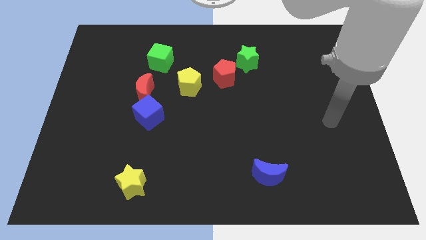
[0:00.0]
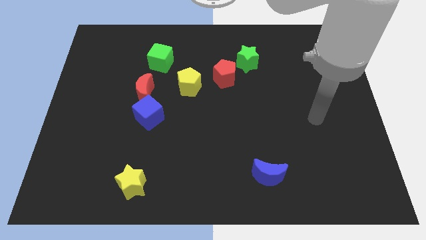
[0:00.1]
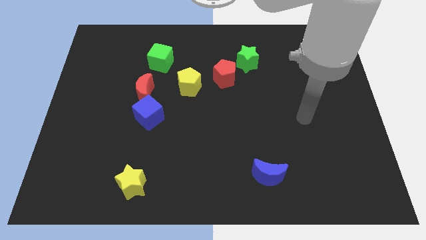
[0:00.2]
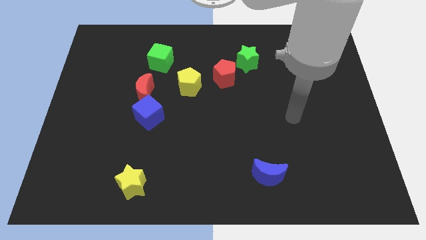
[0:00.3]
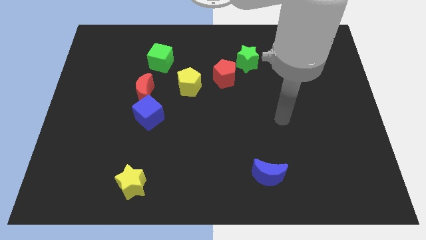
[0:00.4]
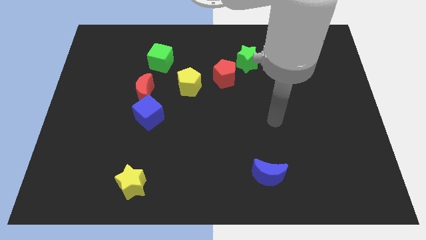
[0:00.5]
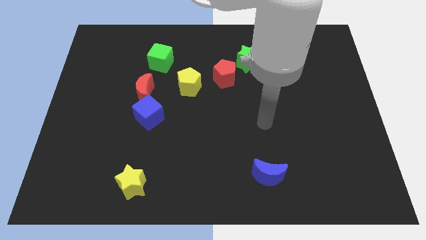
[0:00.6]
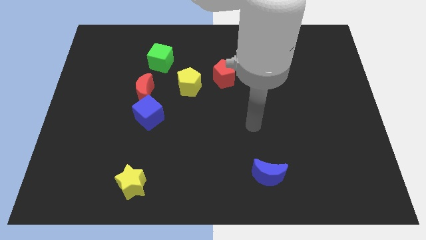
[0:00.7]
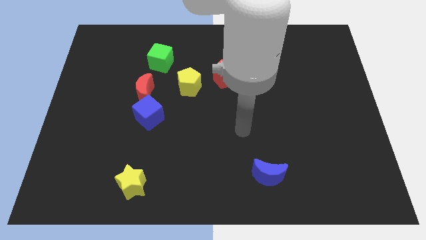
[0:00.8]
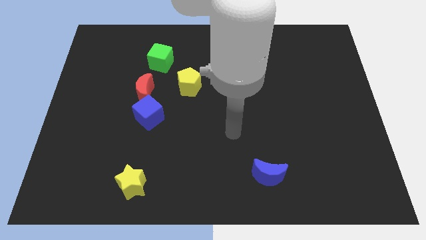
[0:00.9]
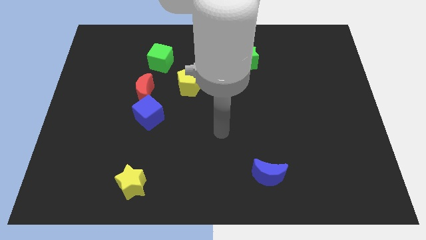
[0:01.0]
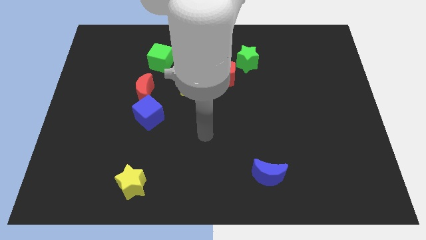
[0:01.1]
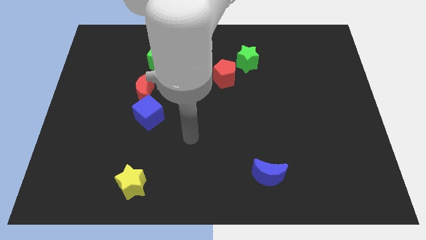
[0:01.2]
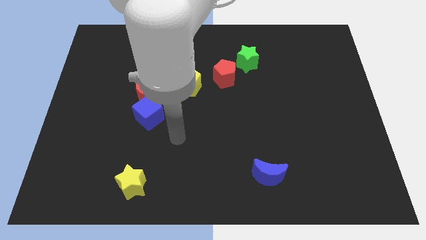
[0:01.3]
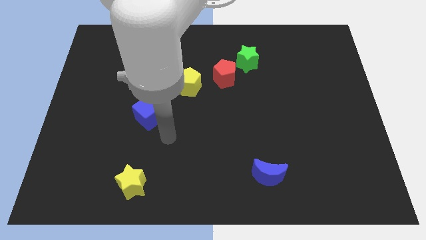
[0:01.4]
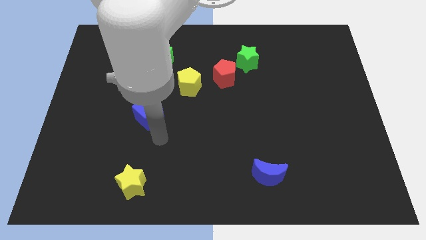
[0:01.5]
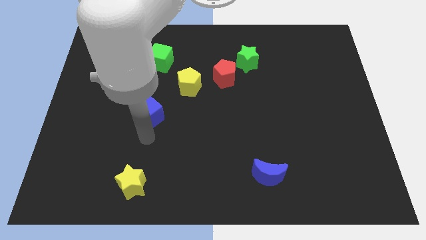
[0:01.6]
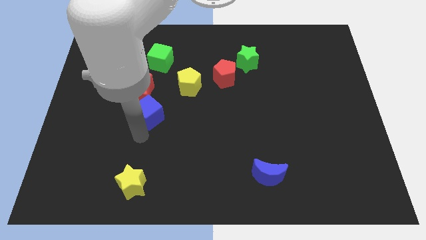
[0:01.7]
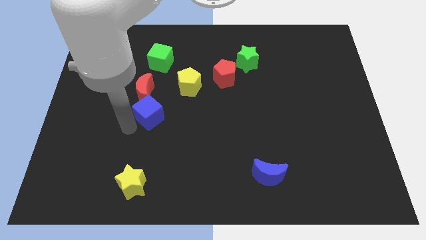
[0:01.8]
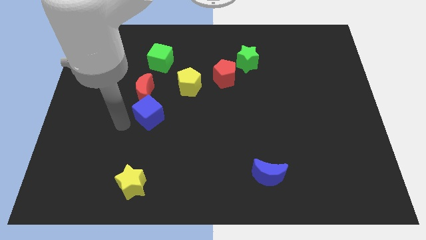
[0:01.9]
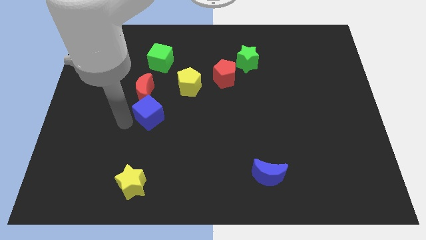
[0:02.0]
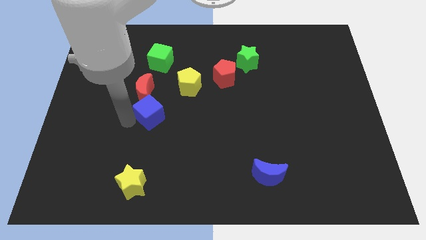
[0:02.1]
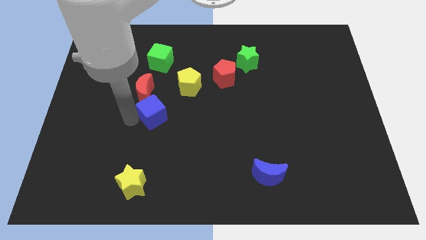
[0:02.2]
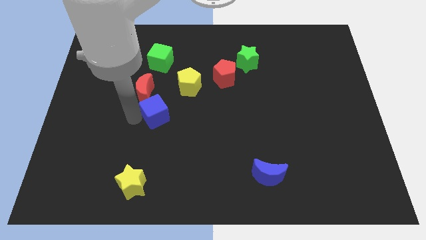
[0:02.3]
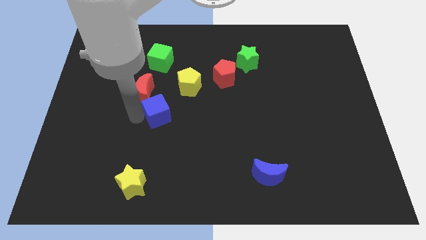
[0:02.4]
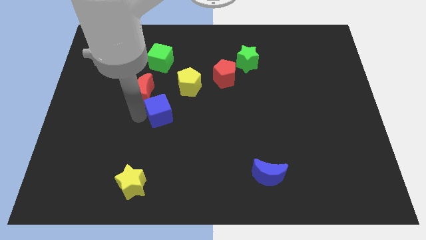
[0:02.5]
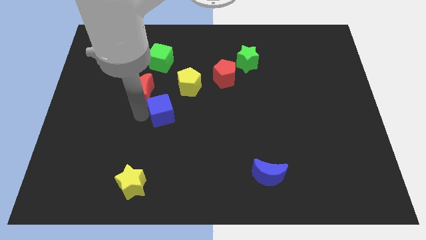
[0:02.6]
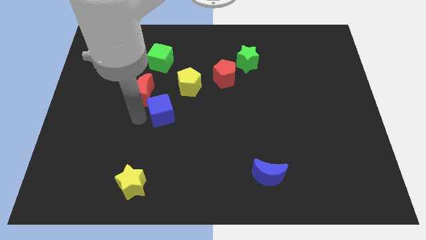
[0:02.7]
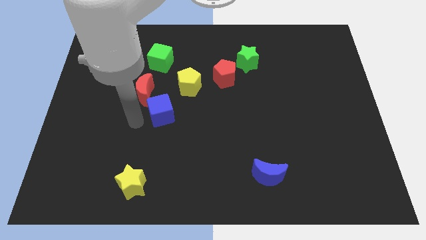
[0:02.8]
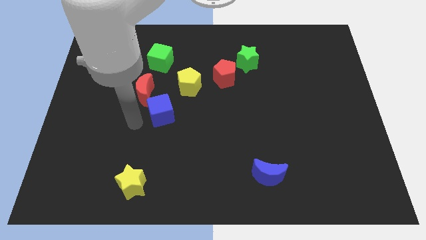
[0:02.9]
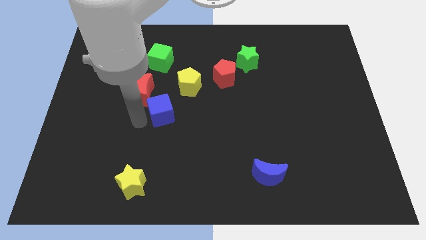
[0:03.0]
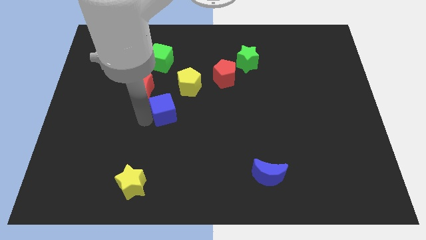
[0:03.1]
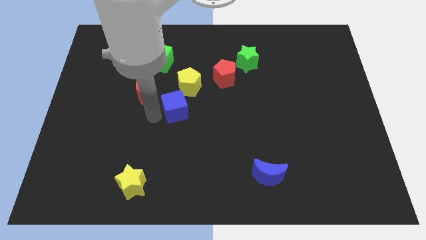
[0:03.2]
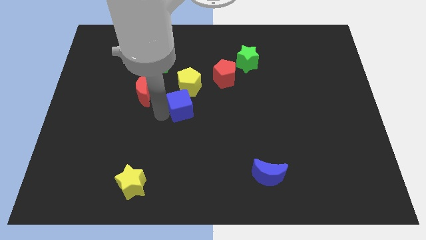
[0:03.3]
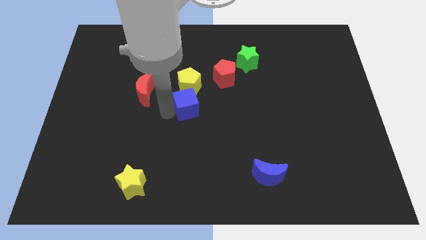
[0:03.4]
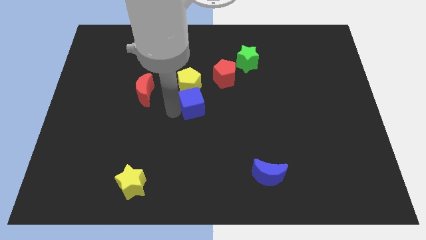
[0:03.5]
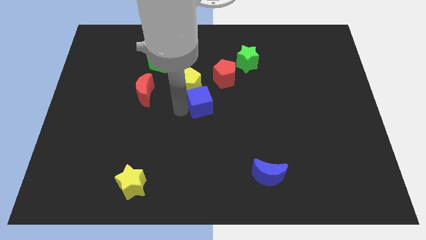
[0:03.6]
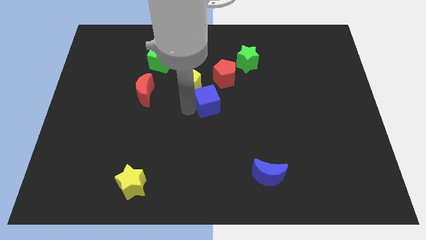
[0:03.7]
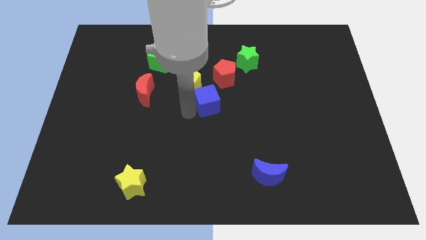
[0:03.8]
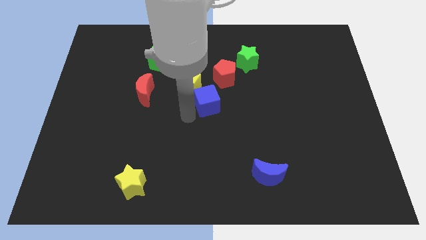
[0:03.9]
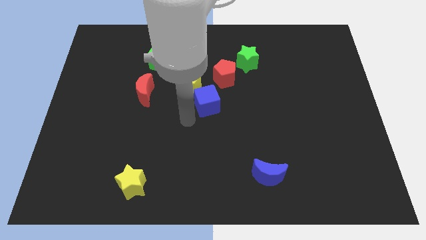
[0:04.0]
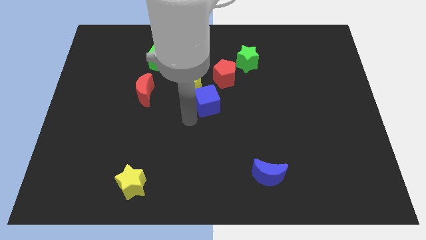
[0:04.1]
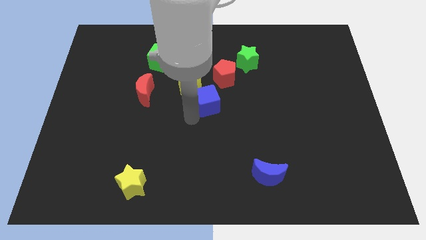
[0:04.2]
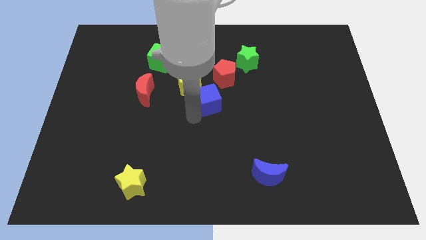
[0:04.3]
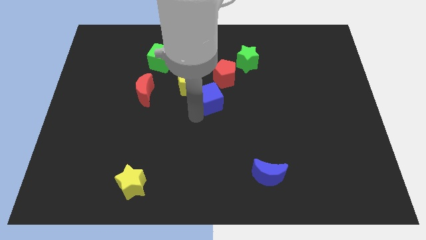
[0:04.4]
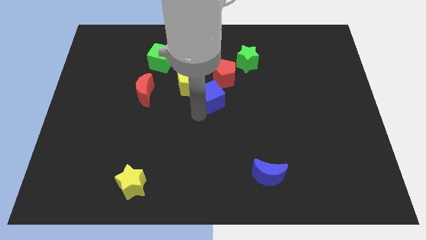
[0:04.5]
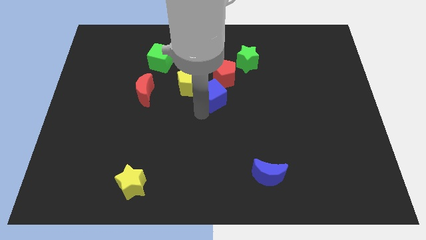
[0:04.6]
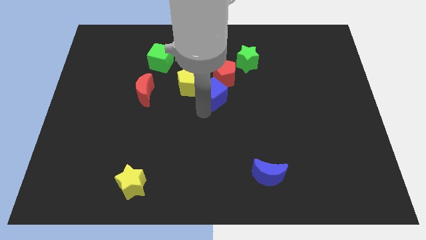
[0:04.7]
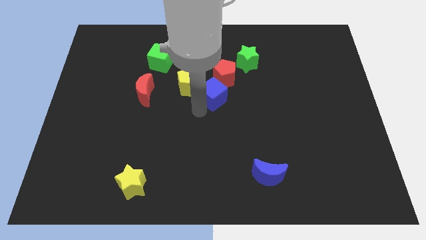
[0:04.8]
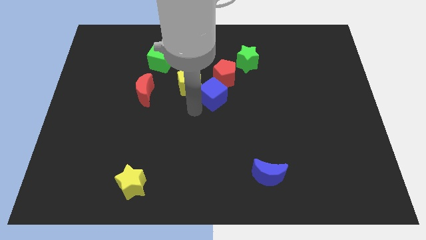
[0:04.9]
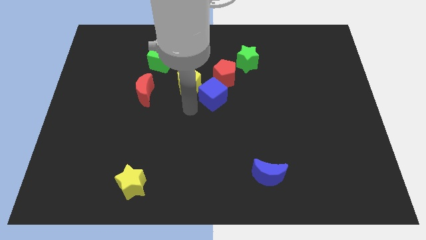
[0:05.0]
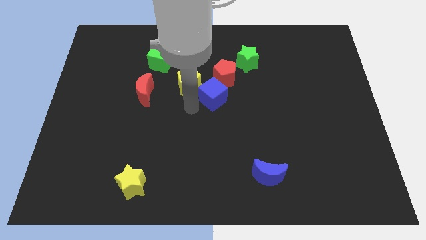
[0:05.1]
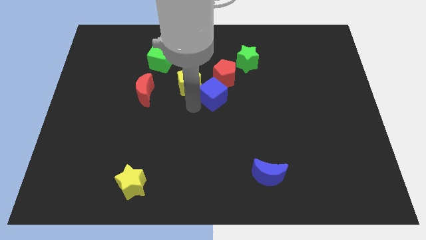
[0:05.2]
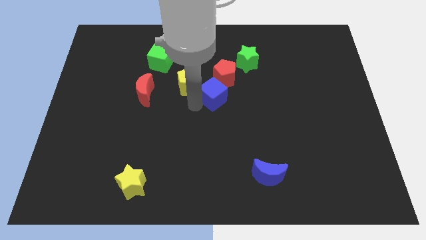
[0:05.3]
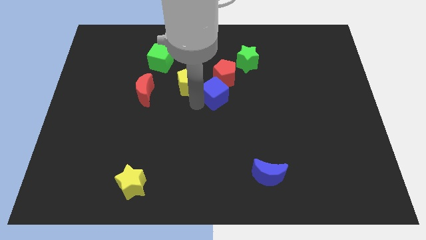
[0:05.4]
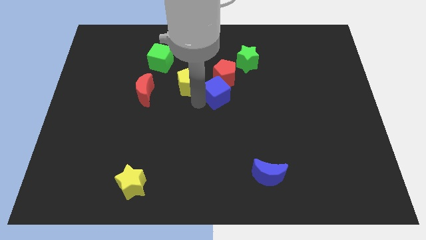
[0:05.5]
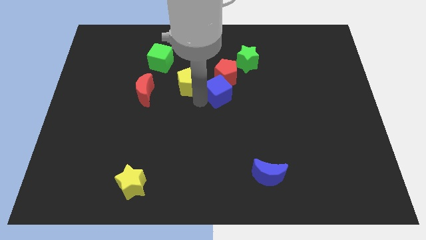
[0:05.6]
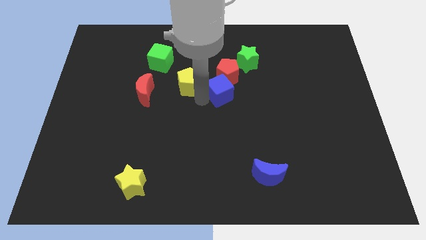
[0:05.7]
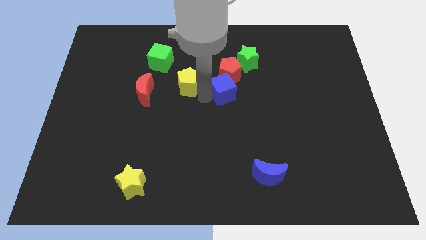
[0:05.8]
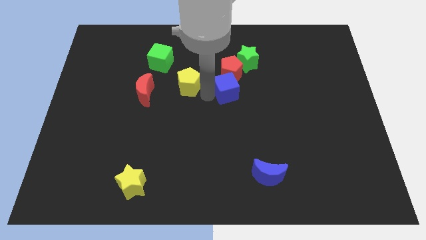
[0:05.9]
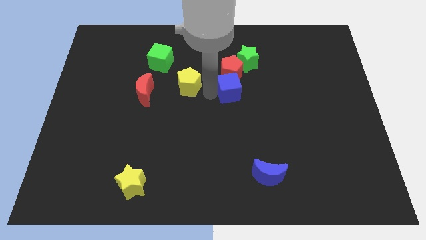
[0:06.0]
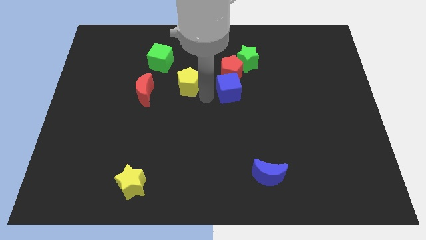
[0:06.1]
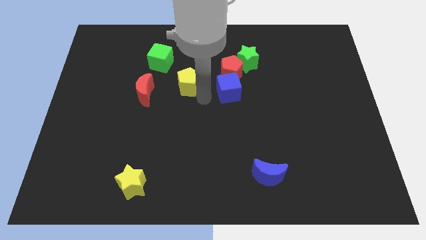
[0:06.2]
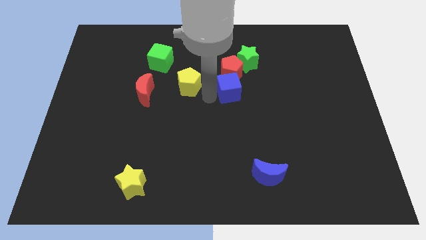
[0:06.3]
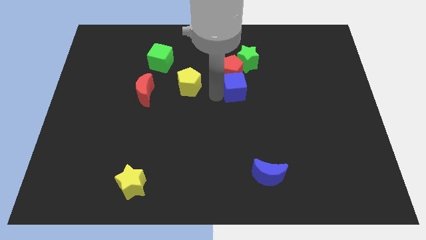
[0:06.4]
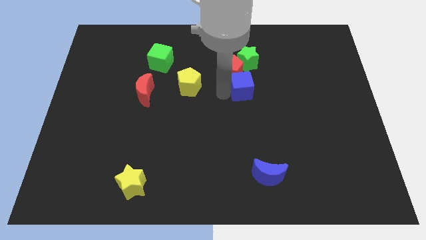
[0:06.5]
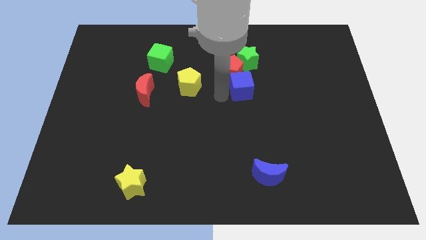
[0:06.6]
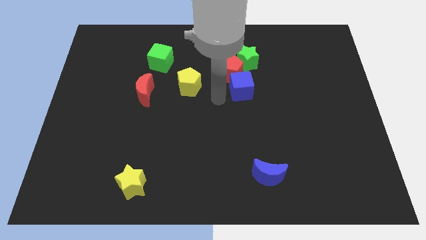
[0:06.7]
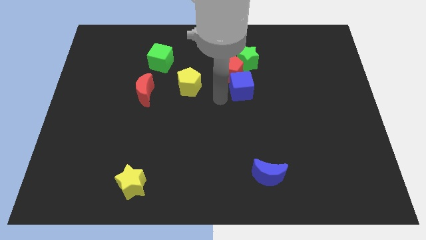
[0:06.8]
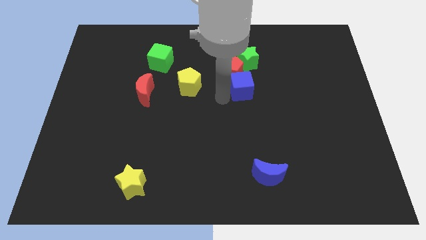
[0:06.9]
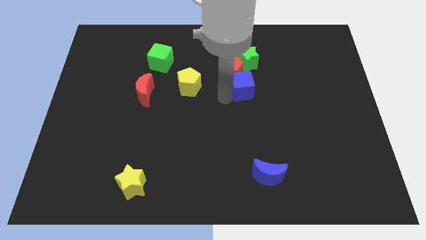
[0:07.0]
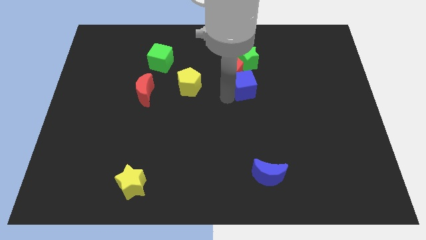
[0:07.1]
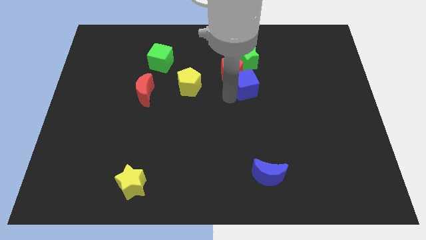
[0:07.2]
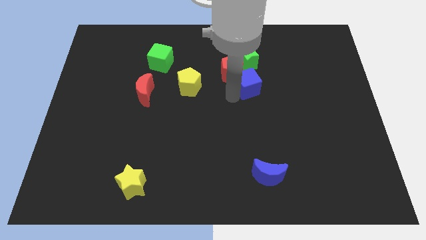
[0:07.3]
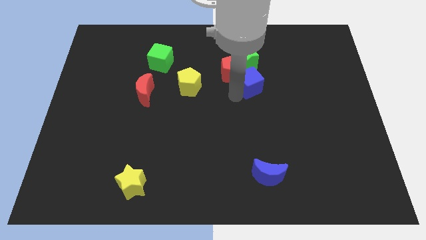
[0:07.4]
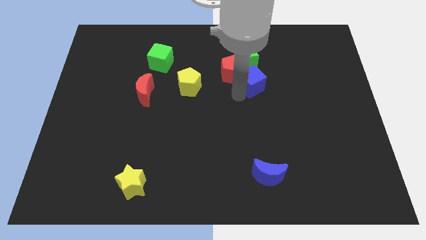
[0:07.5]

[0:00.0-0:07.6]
slide the blue cube to the bottom right side of the green star

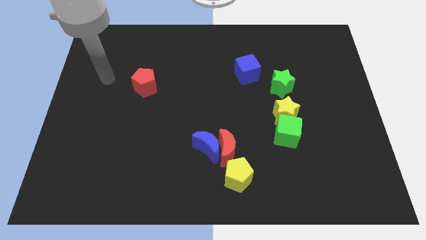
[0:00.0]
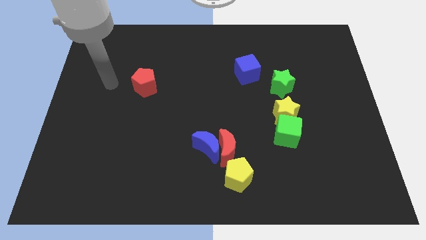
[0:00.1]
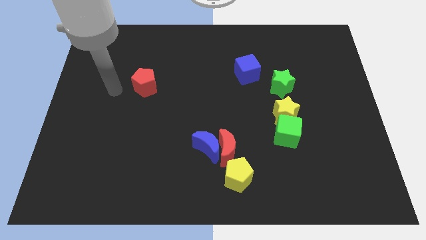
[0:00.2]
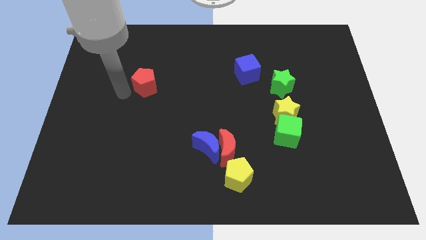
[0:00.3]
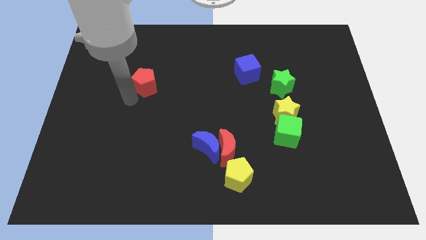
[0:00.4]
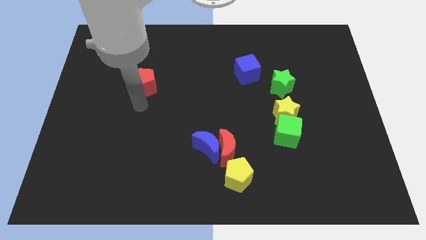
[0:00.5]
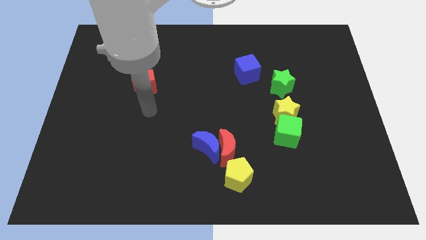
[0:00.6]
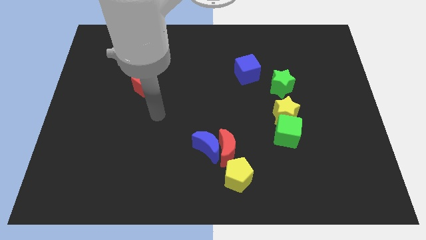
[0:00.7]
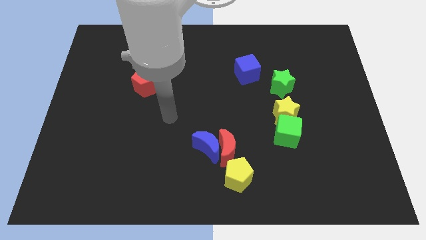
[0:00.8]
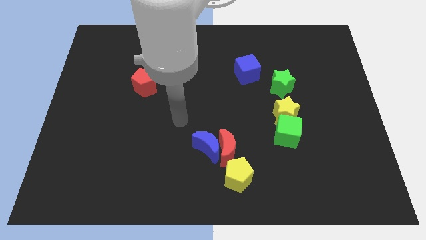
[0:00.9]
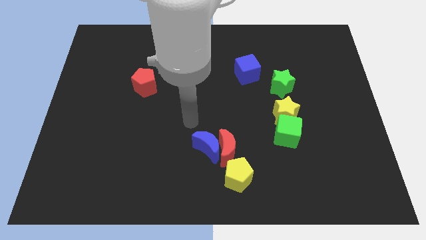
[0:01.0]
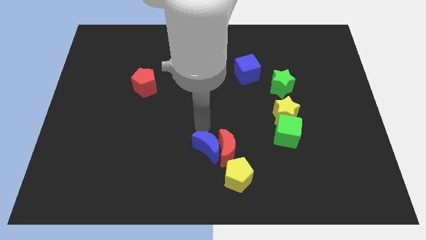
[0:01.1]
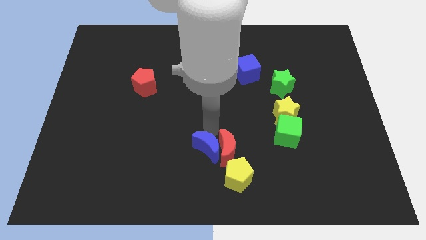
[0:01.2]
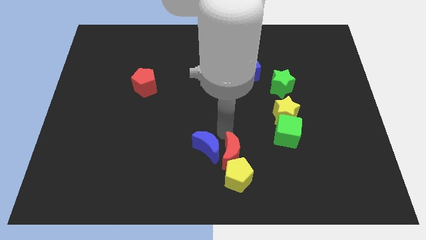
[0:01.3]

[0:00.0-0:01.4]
put the yellow pentagon to the bottom left of the red moon
